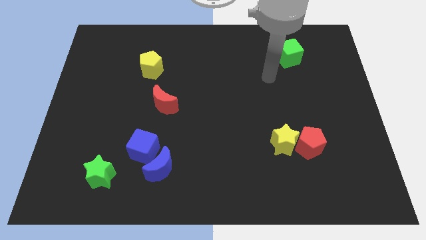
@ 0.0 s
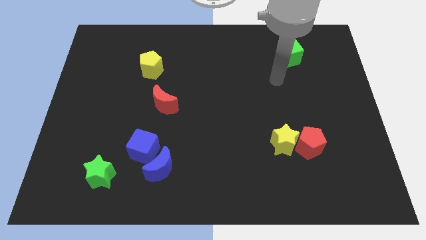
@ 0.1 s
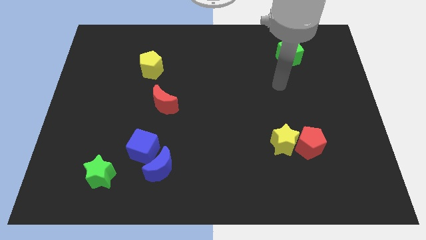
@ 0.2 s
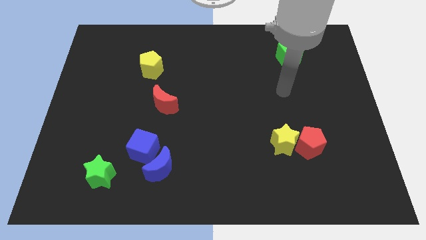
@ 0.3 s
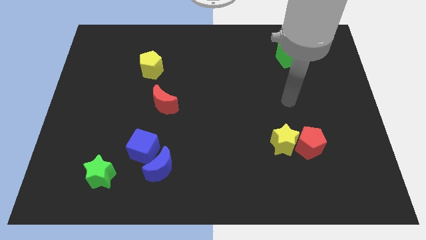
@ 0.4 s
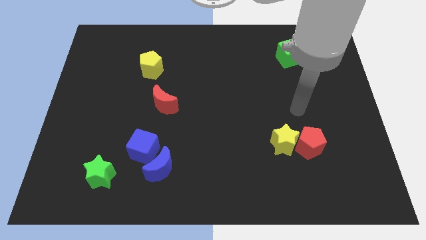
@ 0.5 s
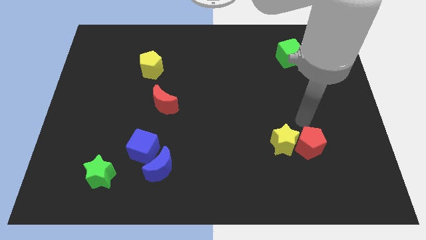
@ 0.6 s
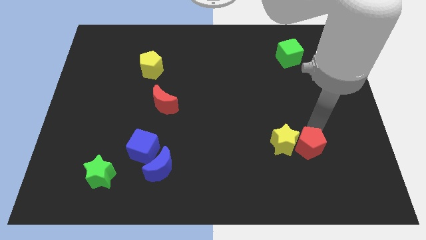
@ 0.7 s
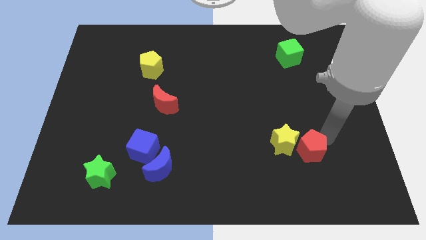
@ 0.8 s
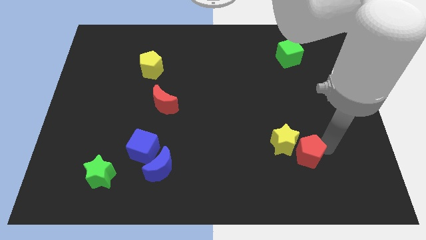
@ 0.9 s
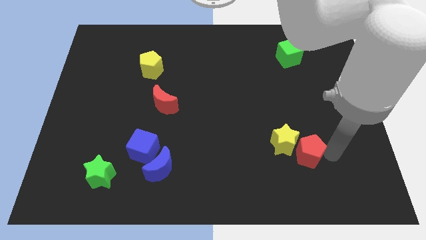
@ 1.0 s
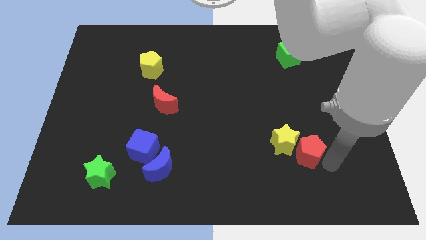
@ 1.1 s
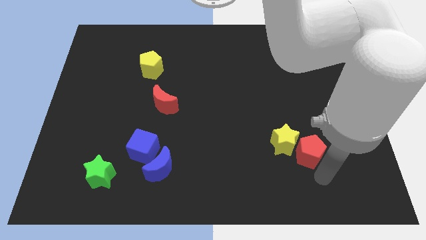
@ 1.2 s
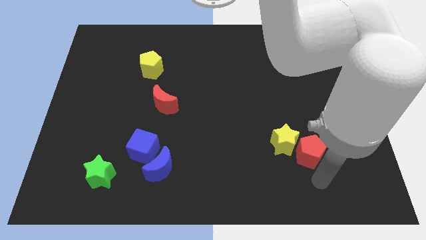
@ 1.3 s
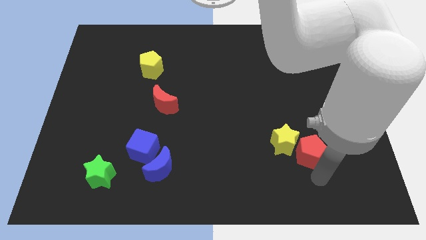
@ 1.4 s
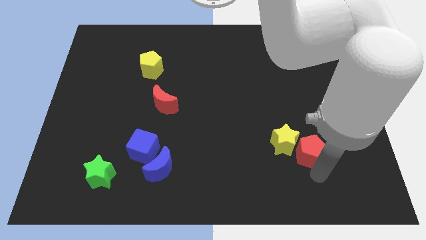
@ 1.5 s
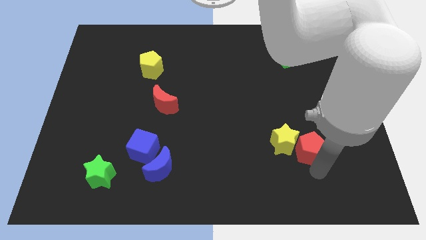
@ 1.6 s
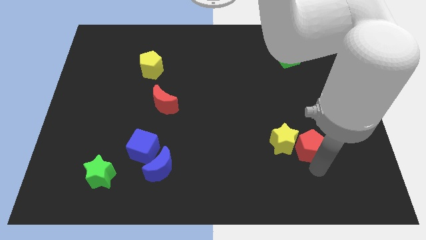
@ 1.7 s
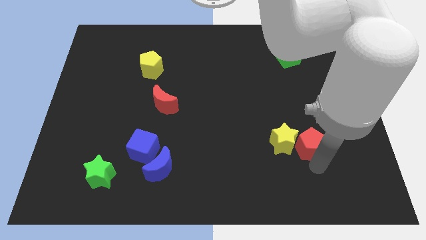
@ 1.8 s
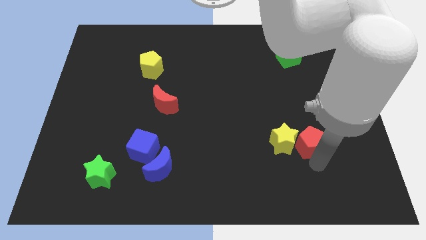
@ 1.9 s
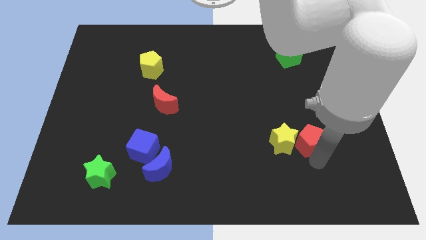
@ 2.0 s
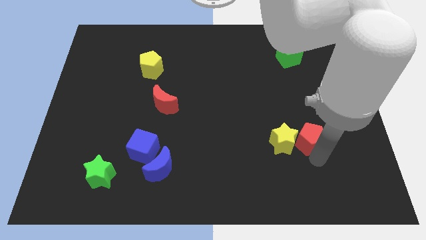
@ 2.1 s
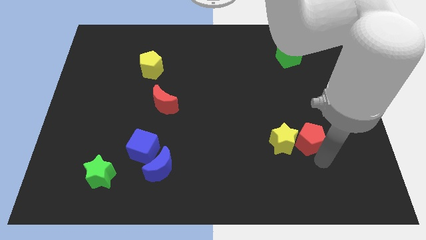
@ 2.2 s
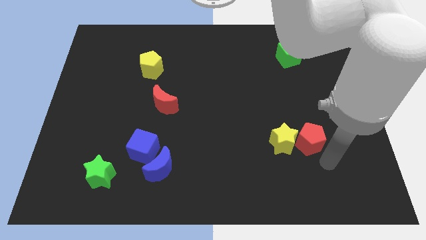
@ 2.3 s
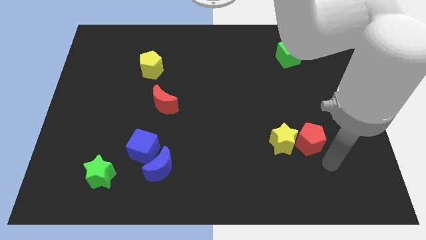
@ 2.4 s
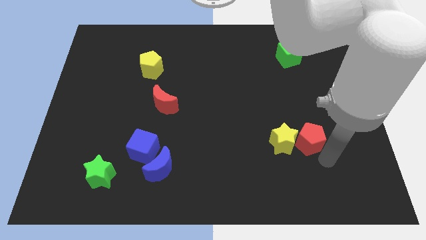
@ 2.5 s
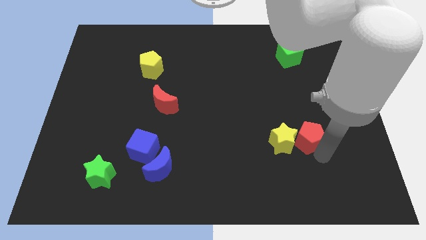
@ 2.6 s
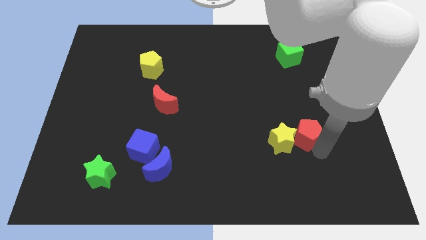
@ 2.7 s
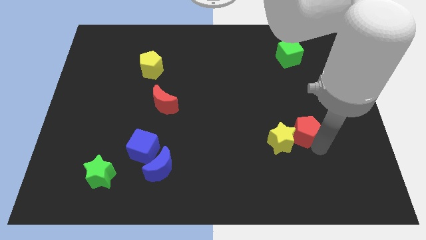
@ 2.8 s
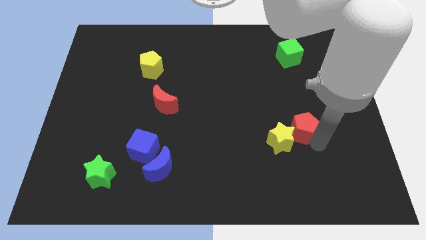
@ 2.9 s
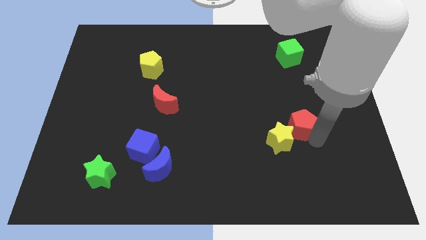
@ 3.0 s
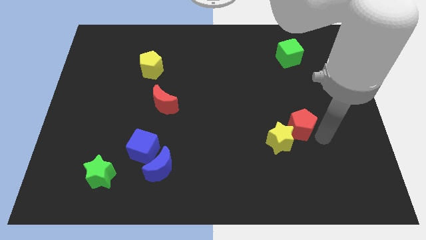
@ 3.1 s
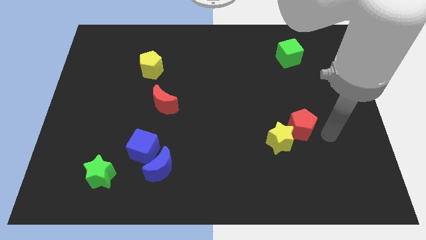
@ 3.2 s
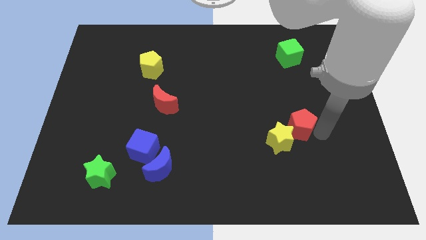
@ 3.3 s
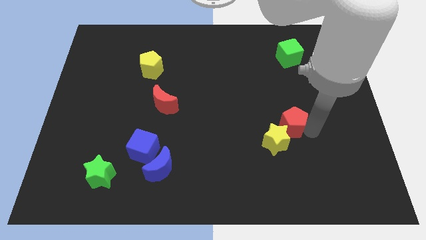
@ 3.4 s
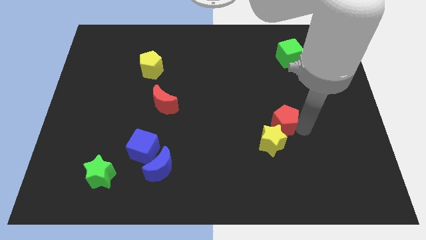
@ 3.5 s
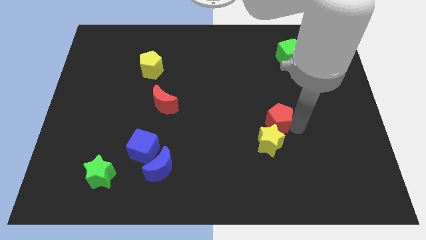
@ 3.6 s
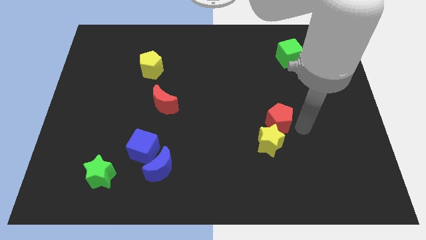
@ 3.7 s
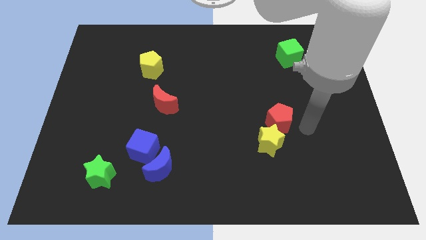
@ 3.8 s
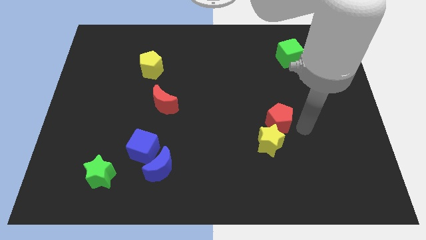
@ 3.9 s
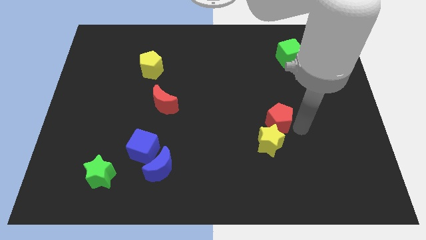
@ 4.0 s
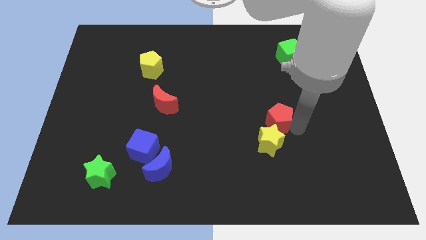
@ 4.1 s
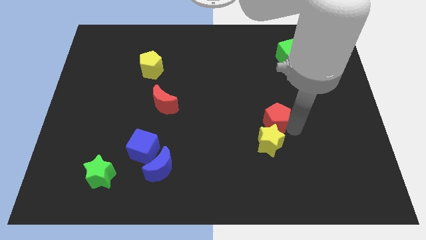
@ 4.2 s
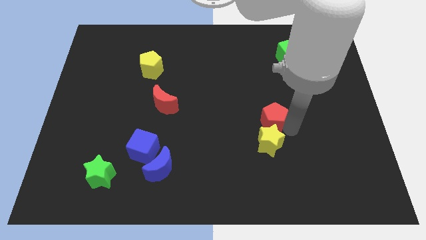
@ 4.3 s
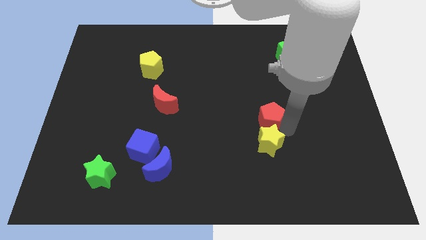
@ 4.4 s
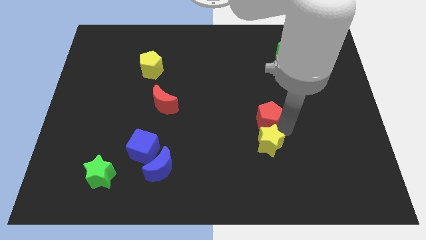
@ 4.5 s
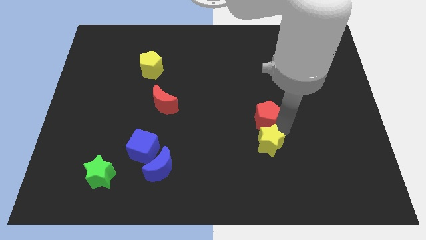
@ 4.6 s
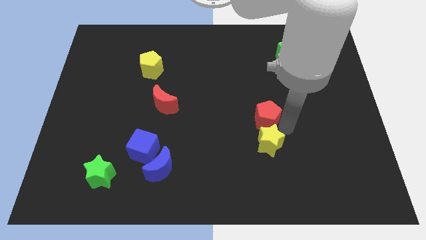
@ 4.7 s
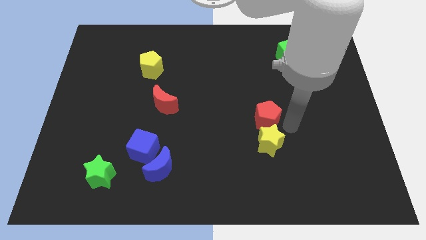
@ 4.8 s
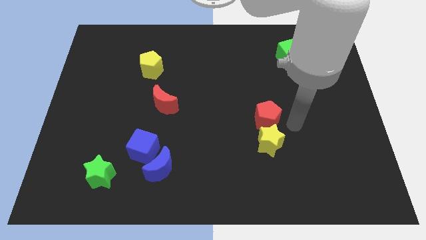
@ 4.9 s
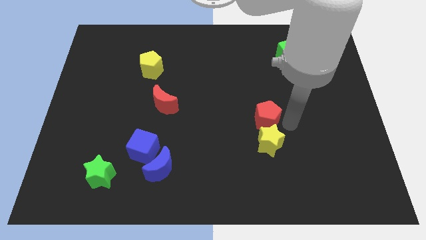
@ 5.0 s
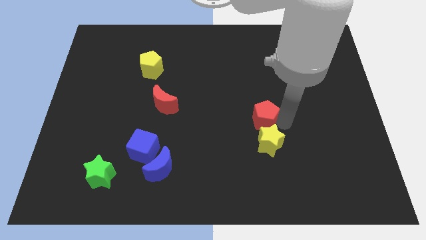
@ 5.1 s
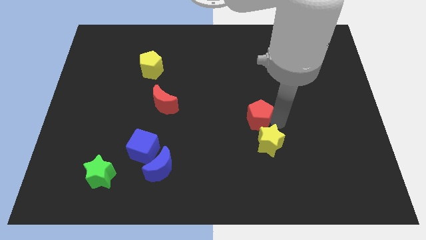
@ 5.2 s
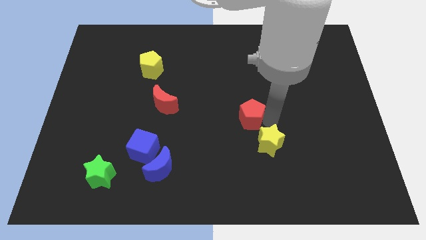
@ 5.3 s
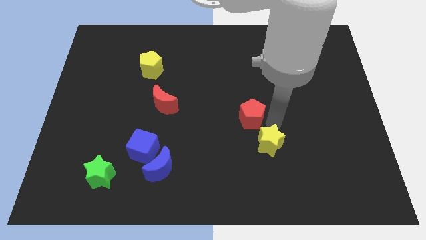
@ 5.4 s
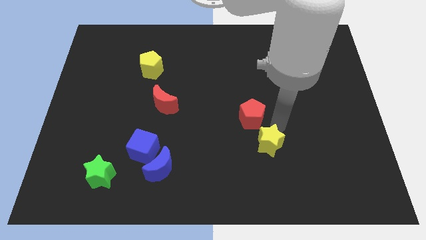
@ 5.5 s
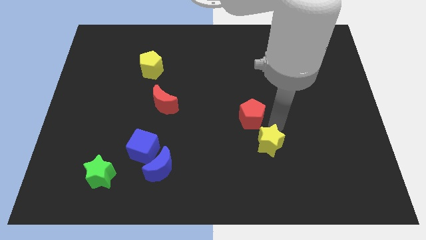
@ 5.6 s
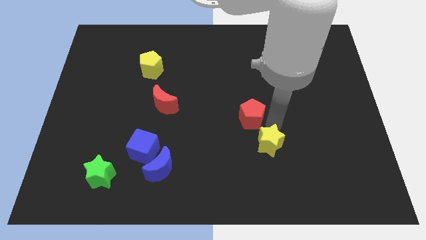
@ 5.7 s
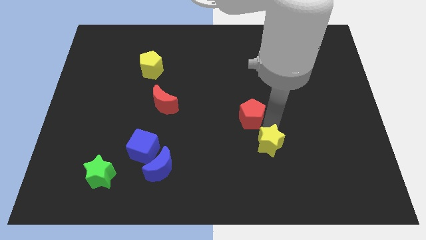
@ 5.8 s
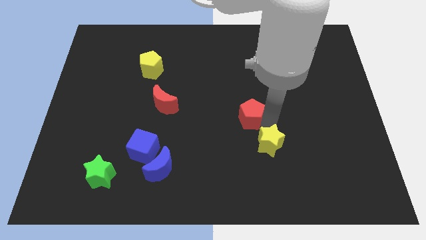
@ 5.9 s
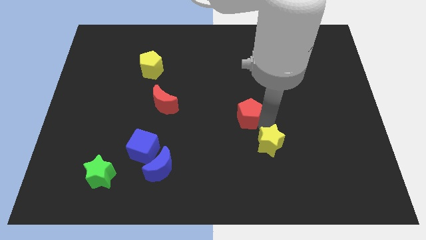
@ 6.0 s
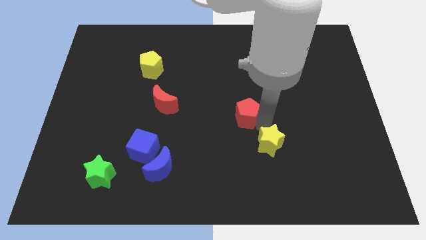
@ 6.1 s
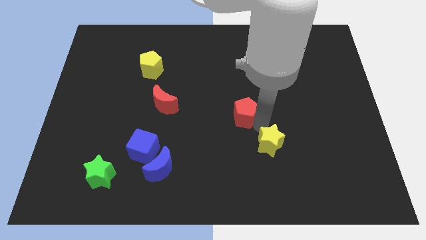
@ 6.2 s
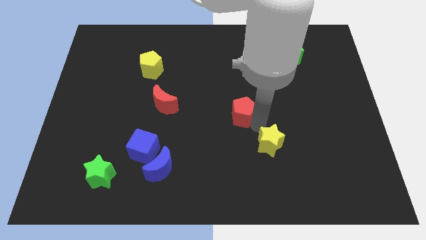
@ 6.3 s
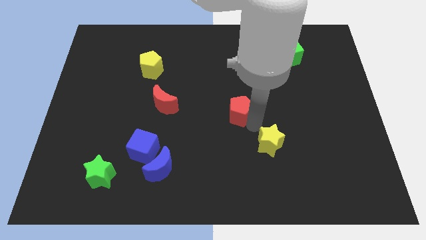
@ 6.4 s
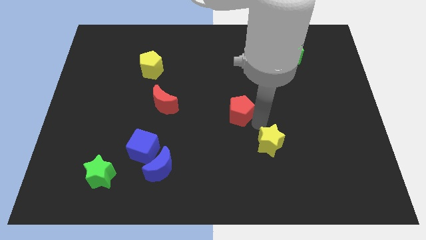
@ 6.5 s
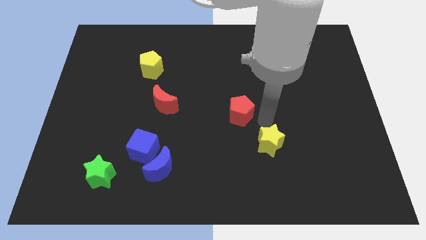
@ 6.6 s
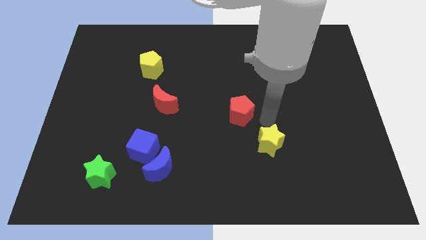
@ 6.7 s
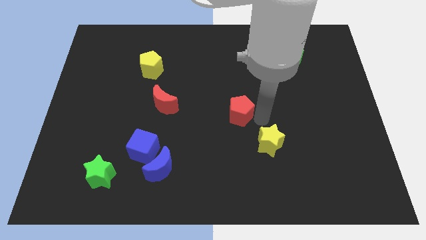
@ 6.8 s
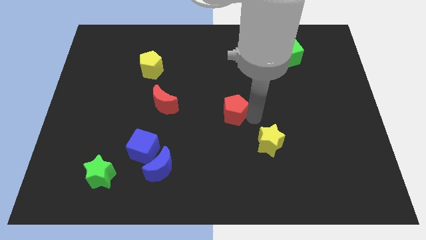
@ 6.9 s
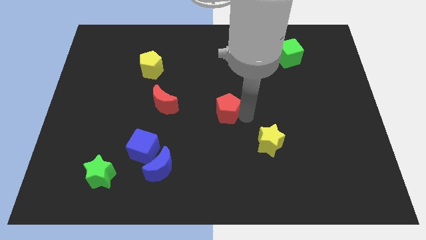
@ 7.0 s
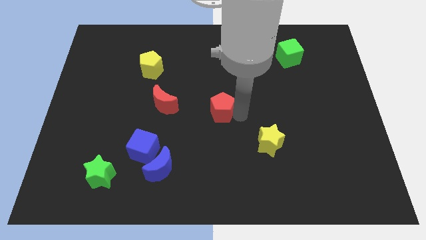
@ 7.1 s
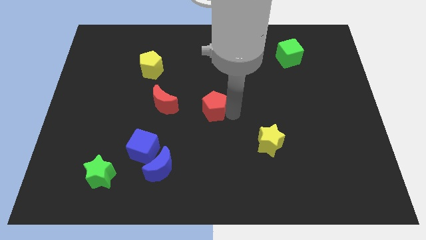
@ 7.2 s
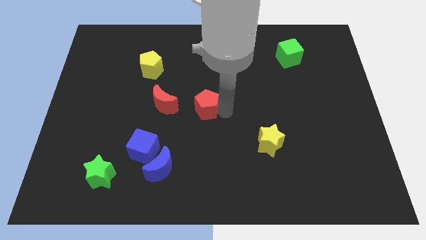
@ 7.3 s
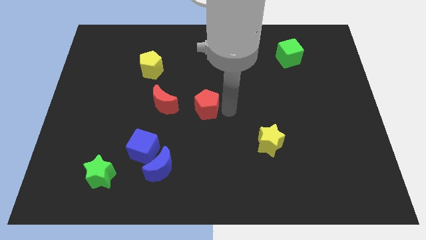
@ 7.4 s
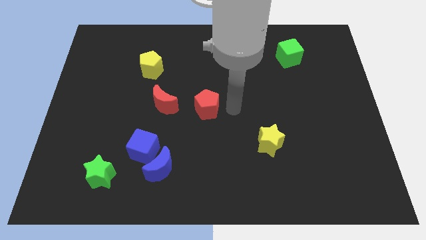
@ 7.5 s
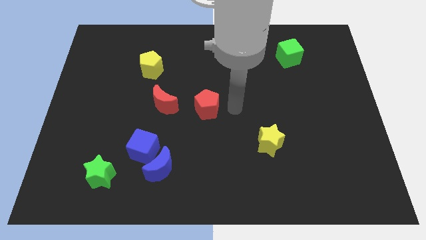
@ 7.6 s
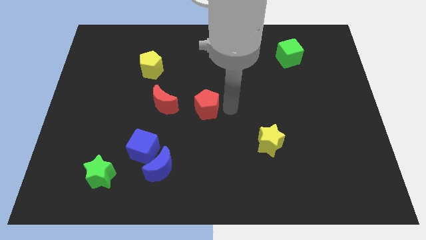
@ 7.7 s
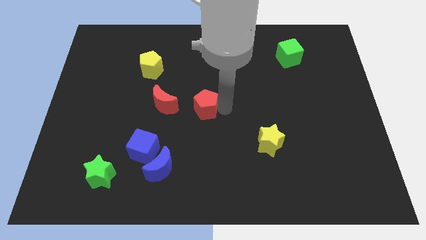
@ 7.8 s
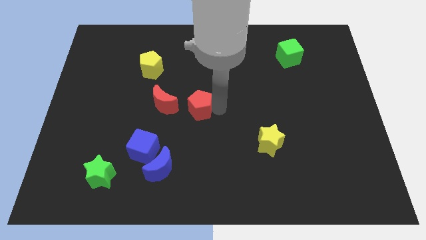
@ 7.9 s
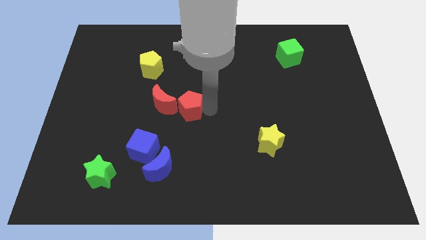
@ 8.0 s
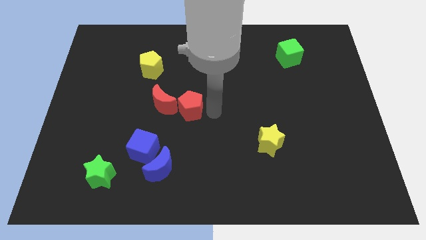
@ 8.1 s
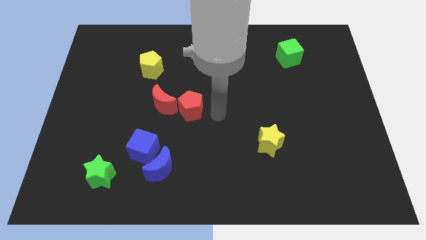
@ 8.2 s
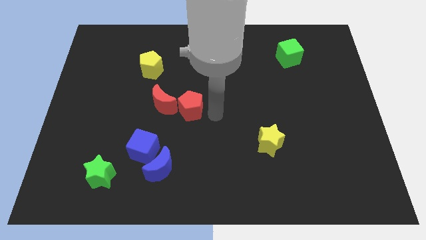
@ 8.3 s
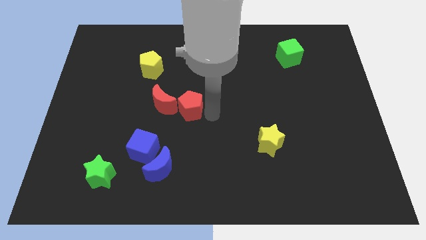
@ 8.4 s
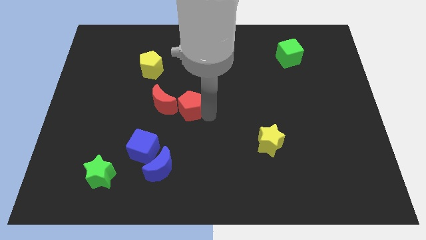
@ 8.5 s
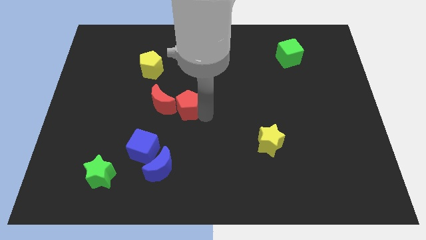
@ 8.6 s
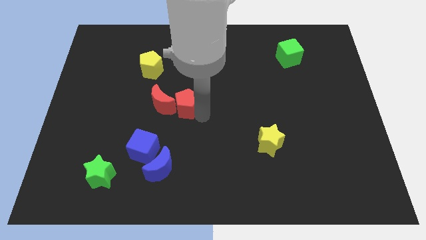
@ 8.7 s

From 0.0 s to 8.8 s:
slide the red pentagon next to the red moon
